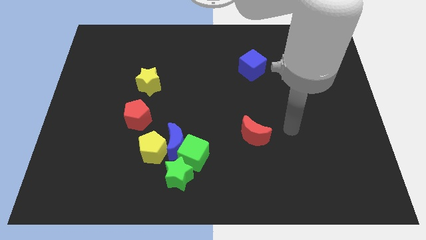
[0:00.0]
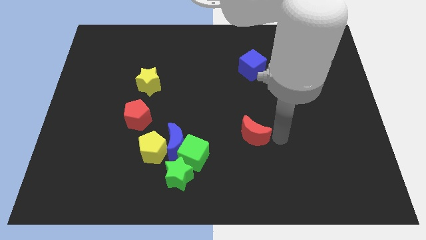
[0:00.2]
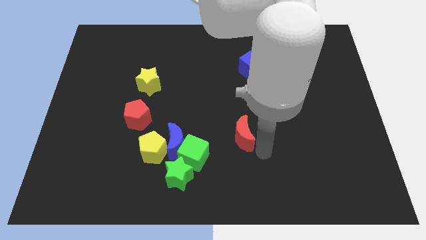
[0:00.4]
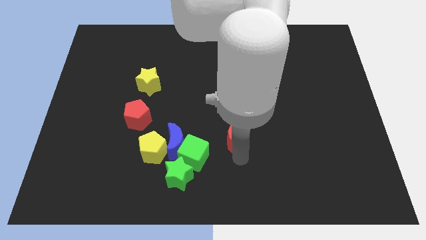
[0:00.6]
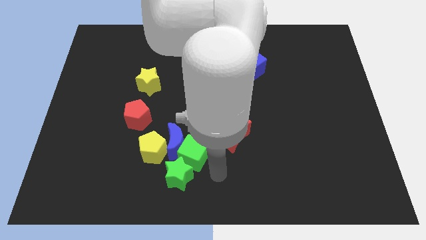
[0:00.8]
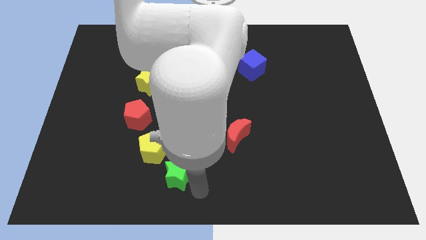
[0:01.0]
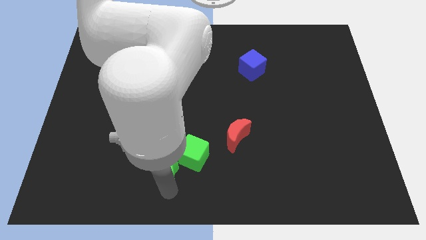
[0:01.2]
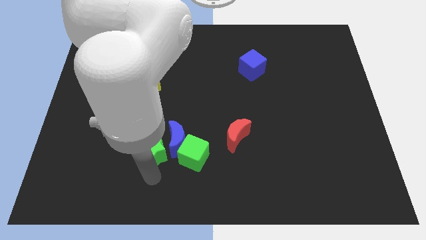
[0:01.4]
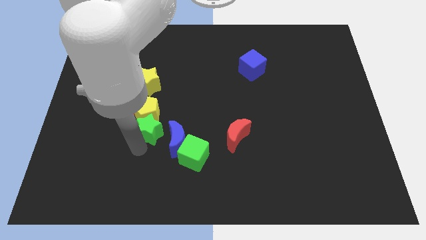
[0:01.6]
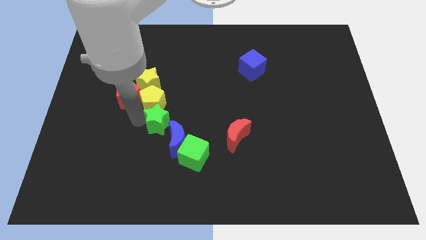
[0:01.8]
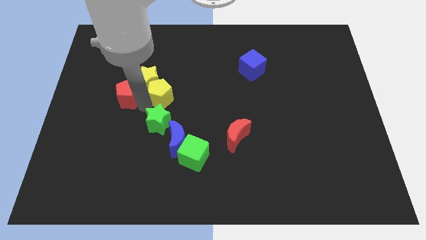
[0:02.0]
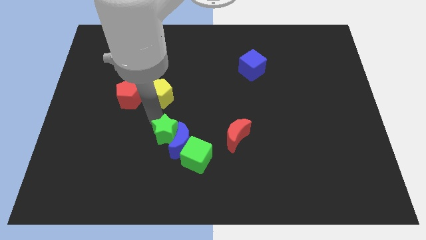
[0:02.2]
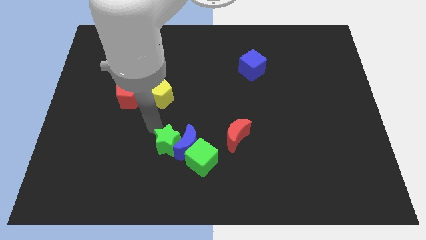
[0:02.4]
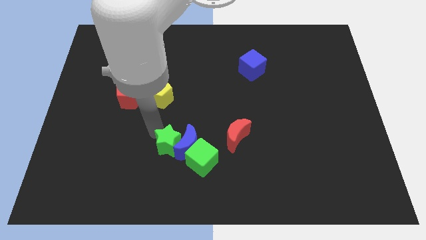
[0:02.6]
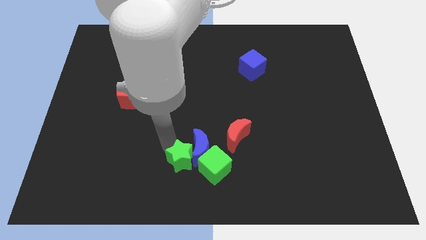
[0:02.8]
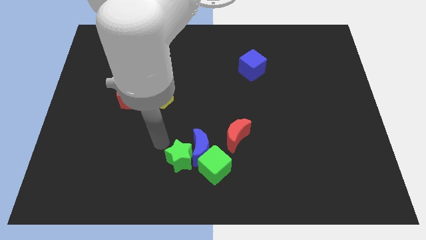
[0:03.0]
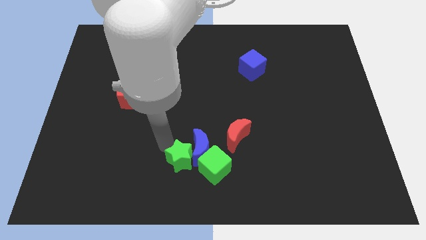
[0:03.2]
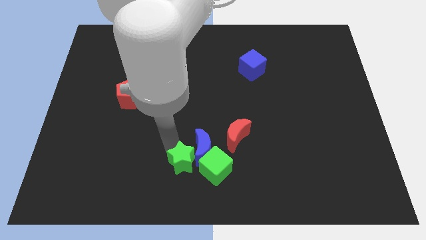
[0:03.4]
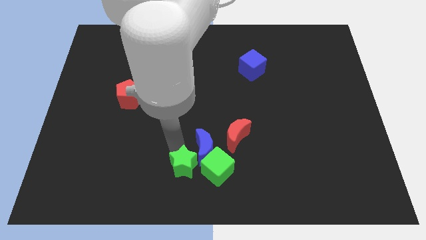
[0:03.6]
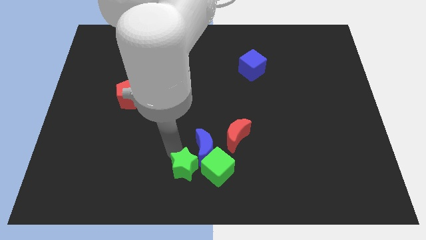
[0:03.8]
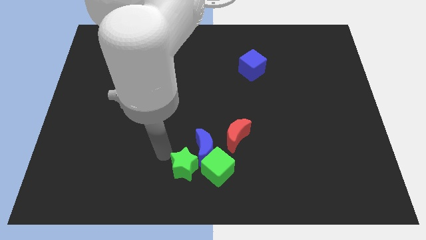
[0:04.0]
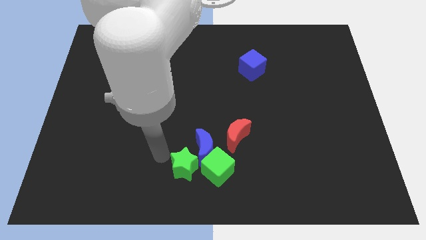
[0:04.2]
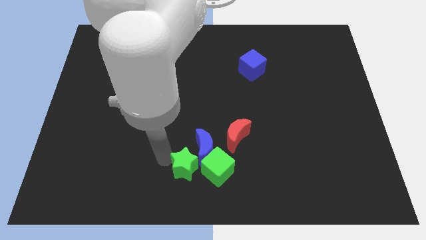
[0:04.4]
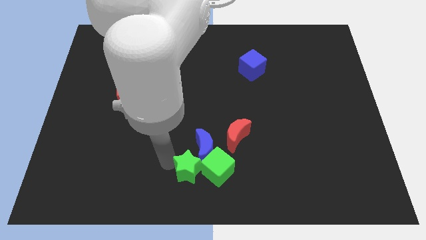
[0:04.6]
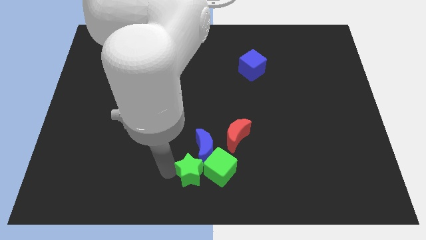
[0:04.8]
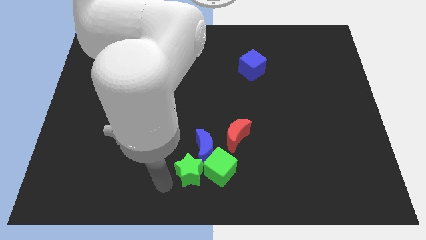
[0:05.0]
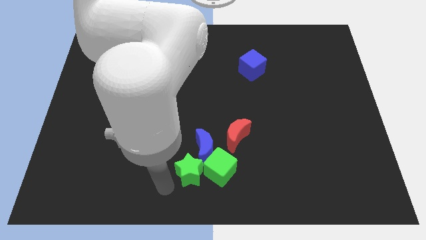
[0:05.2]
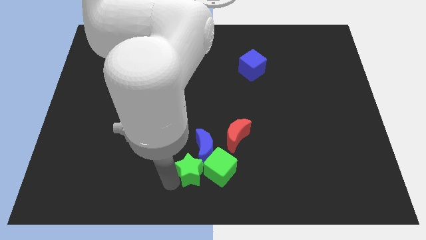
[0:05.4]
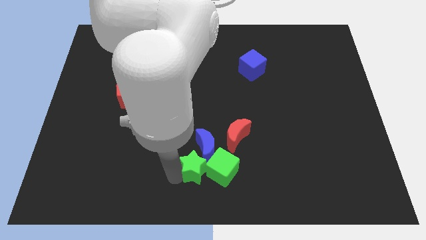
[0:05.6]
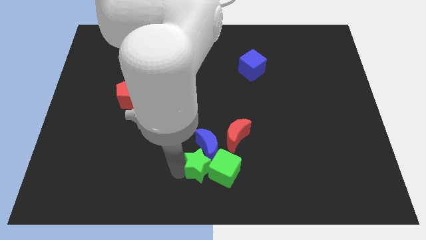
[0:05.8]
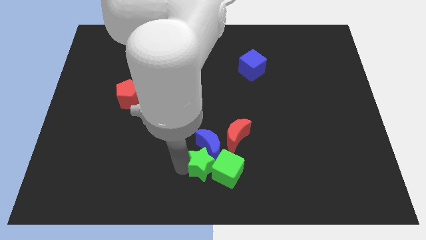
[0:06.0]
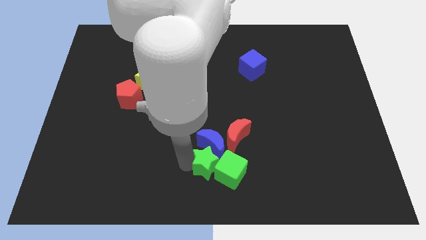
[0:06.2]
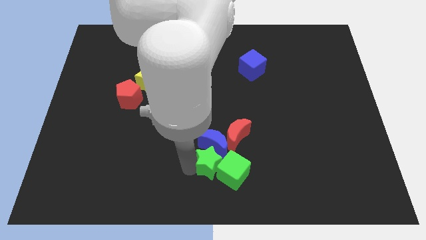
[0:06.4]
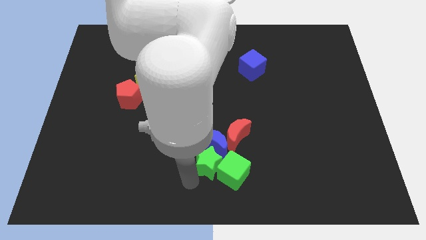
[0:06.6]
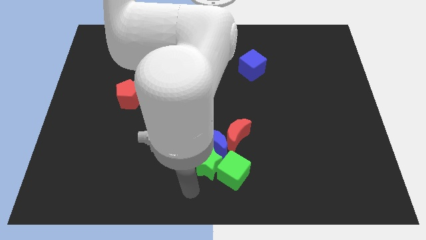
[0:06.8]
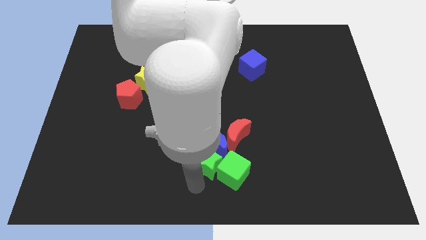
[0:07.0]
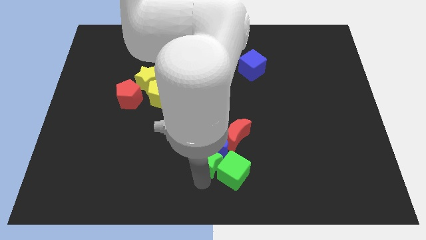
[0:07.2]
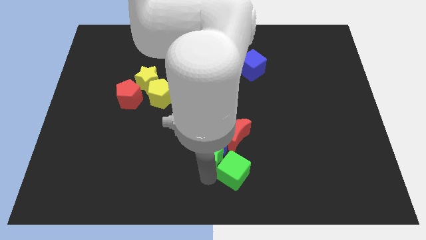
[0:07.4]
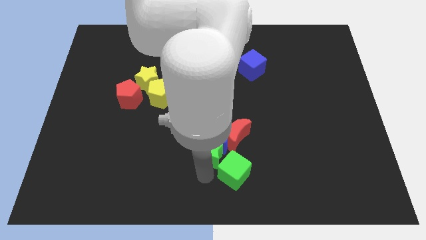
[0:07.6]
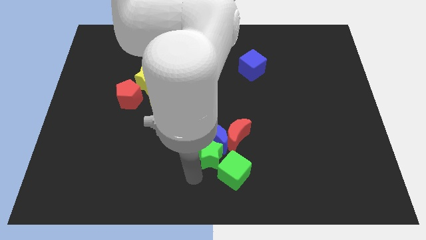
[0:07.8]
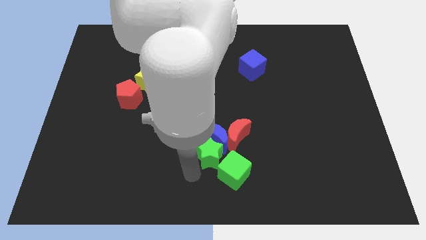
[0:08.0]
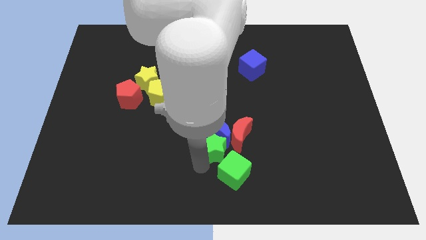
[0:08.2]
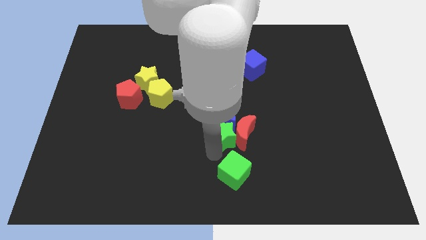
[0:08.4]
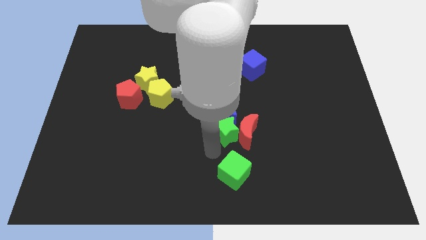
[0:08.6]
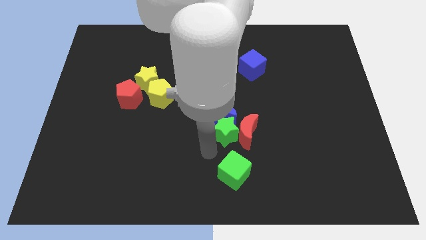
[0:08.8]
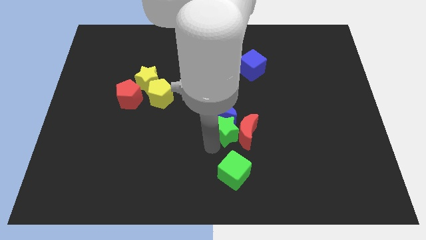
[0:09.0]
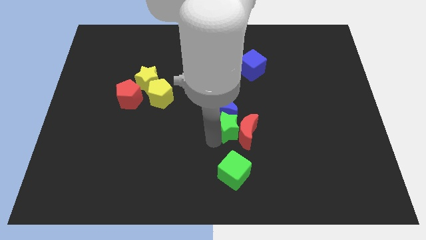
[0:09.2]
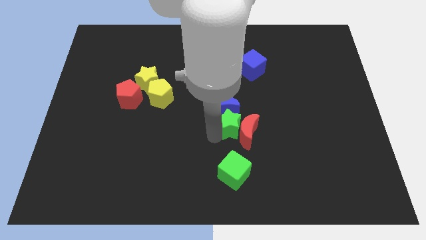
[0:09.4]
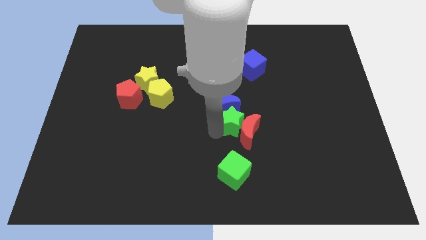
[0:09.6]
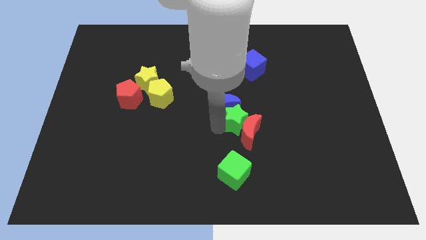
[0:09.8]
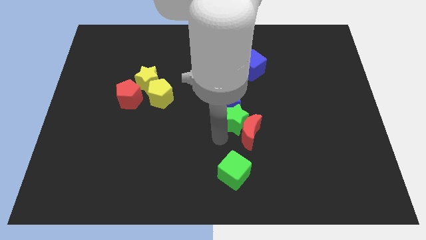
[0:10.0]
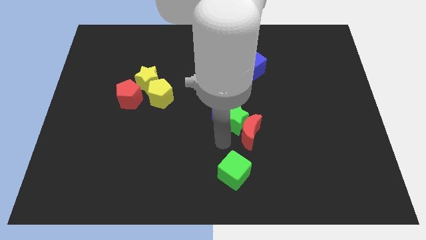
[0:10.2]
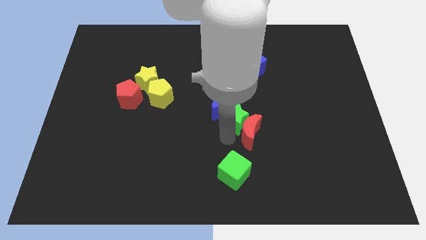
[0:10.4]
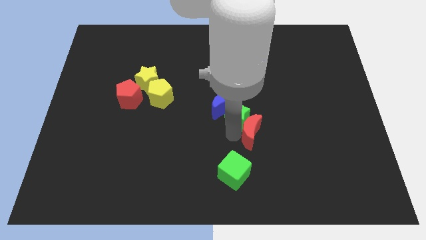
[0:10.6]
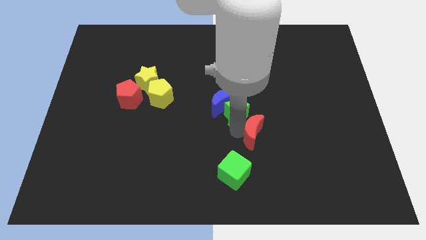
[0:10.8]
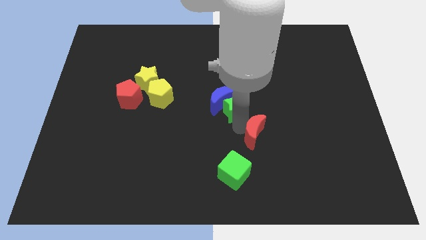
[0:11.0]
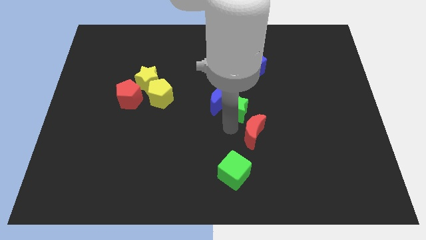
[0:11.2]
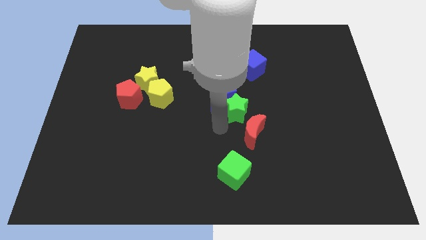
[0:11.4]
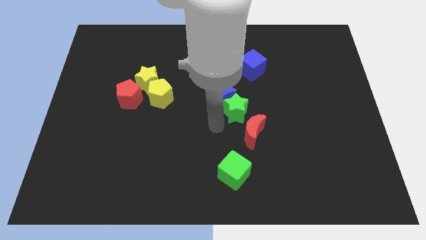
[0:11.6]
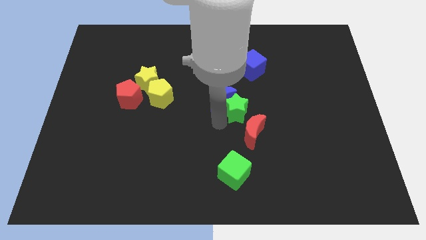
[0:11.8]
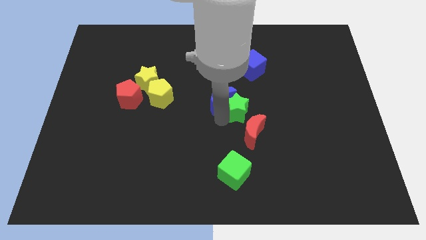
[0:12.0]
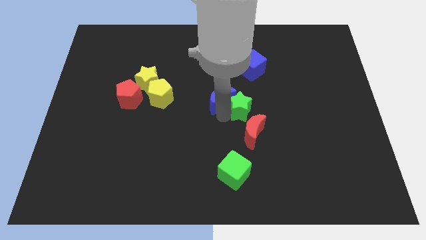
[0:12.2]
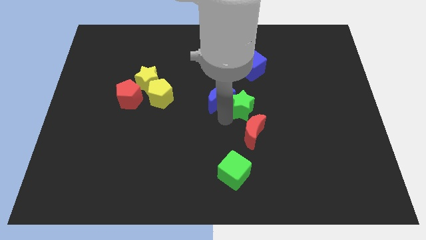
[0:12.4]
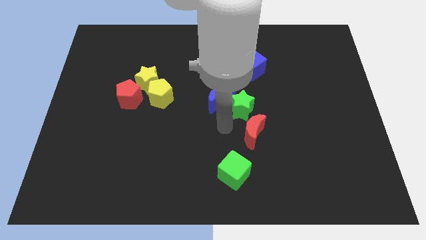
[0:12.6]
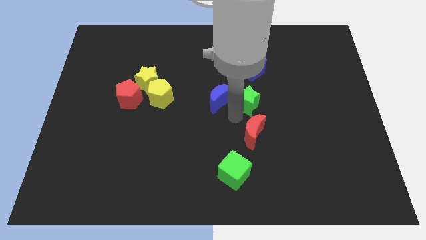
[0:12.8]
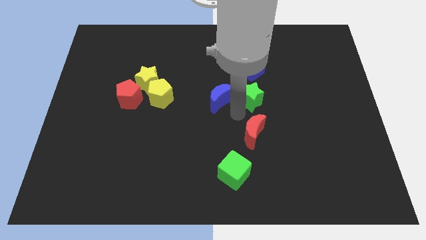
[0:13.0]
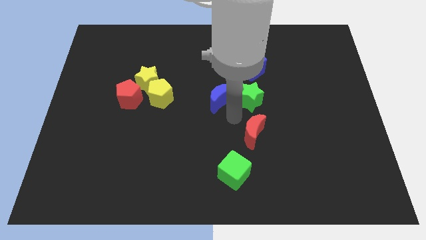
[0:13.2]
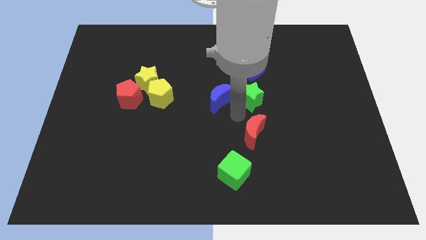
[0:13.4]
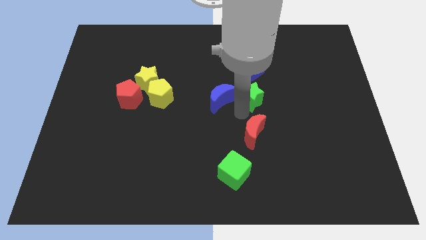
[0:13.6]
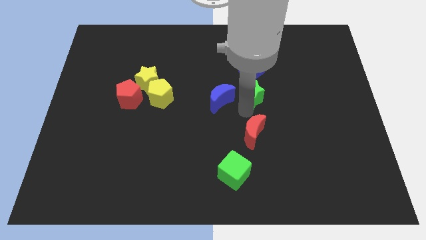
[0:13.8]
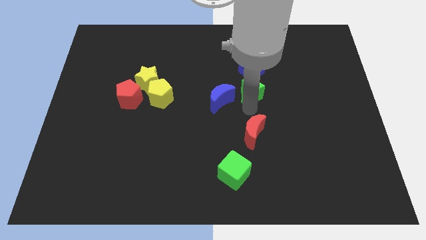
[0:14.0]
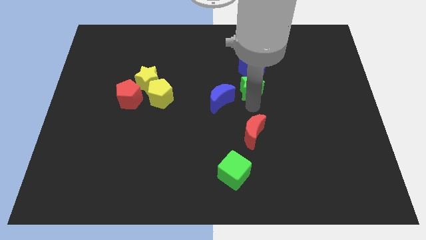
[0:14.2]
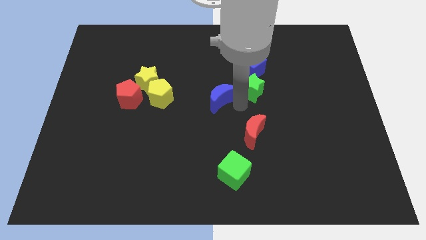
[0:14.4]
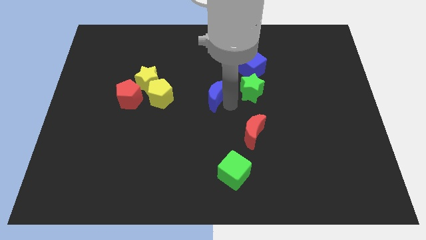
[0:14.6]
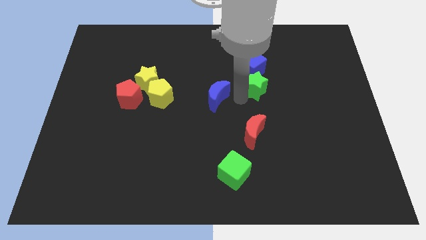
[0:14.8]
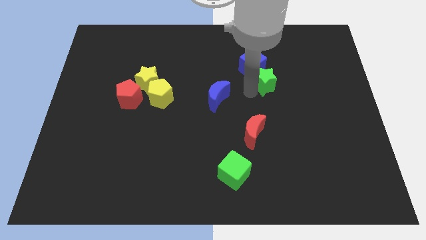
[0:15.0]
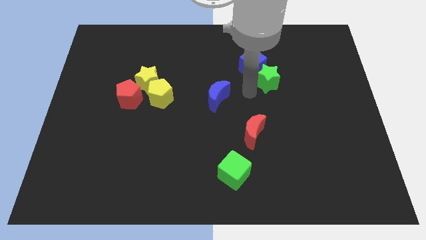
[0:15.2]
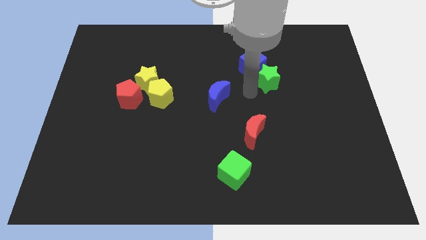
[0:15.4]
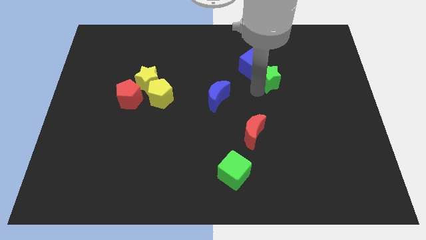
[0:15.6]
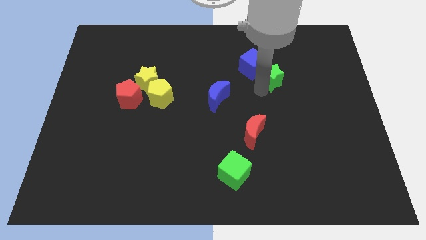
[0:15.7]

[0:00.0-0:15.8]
slide the green star right of the blue cube
